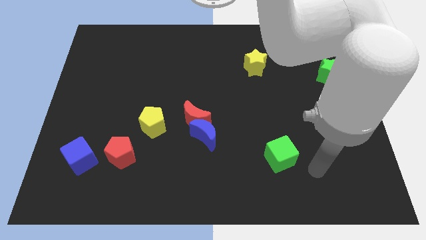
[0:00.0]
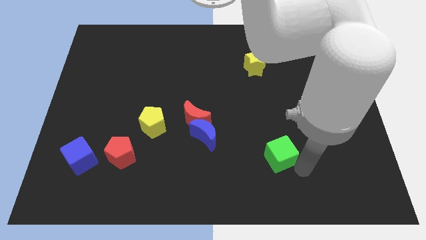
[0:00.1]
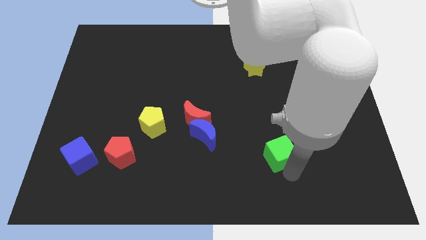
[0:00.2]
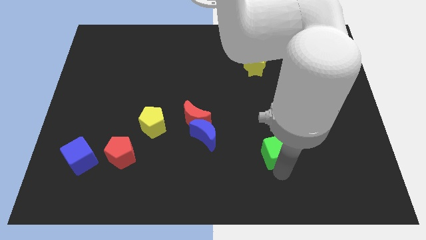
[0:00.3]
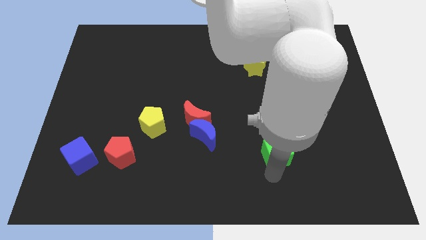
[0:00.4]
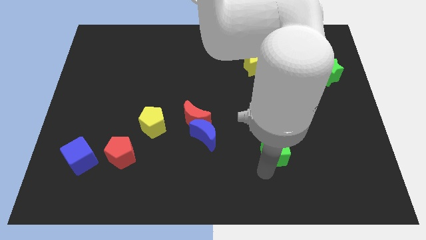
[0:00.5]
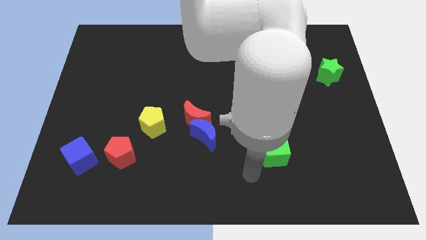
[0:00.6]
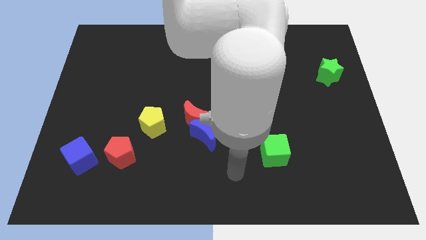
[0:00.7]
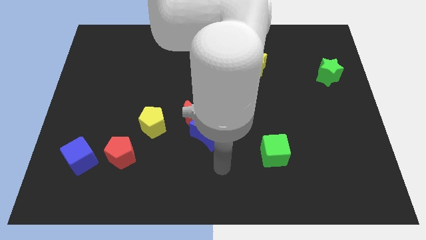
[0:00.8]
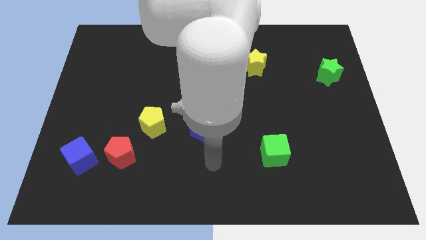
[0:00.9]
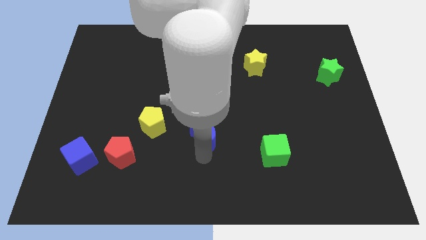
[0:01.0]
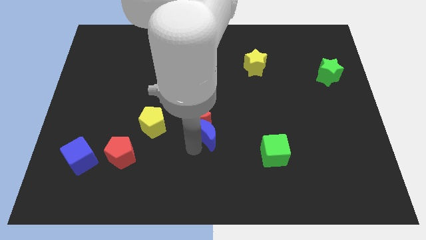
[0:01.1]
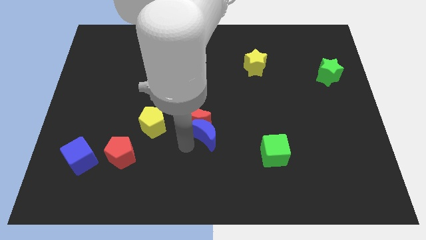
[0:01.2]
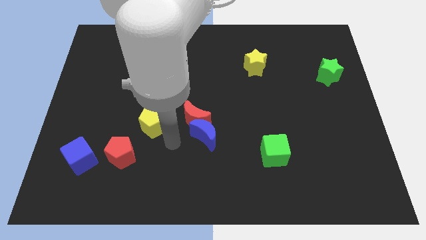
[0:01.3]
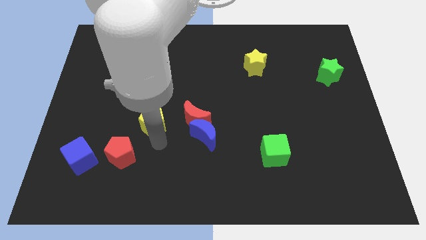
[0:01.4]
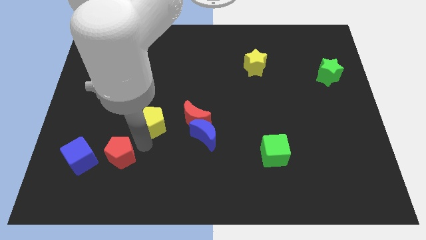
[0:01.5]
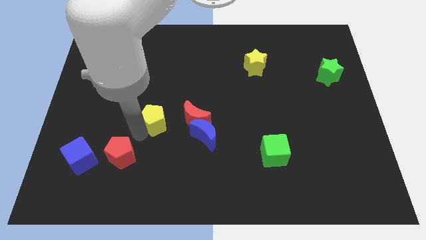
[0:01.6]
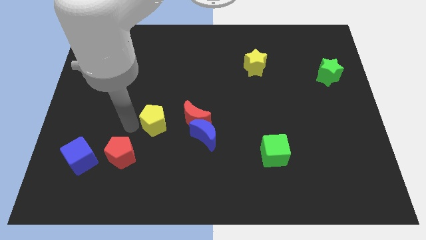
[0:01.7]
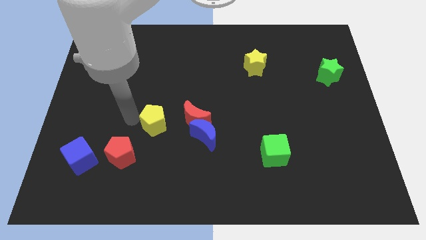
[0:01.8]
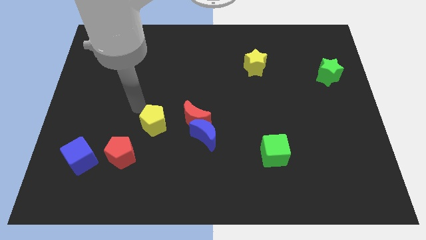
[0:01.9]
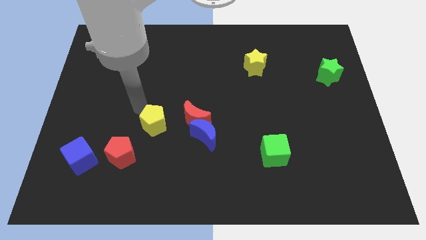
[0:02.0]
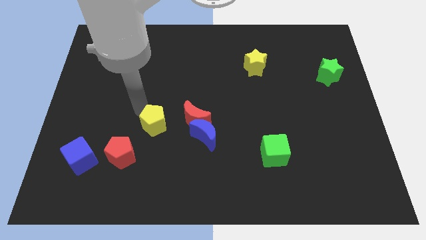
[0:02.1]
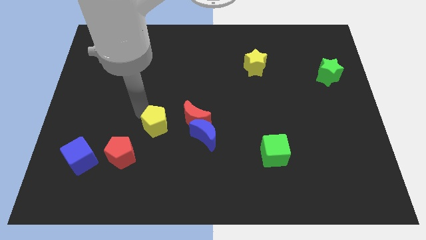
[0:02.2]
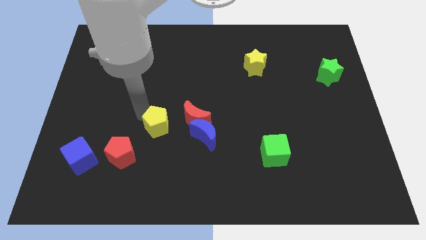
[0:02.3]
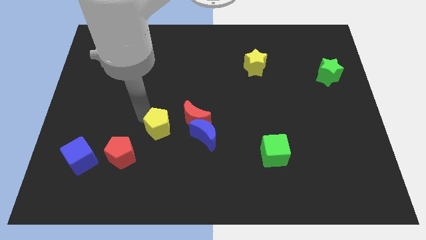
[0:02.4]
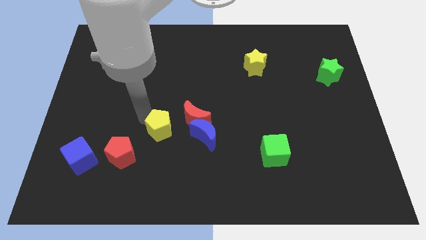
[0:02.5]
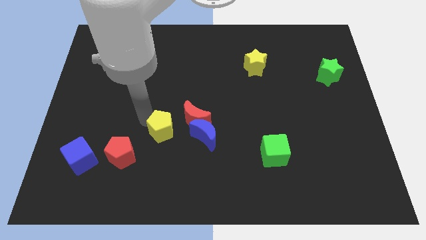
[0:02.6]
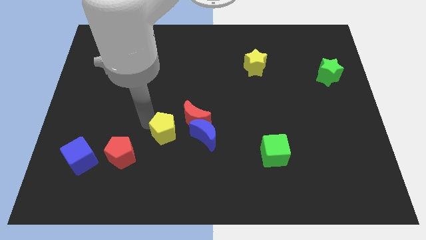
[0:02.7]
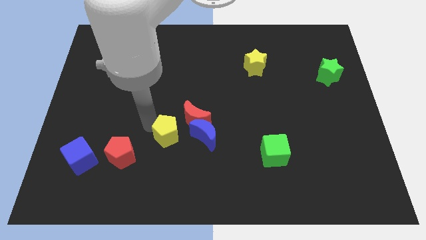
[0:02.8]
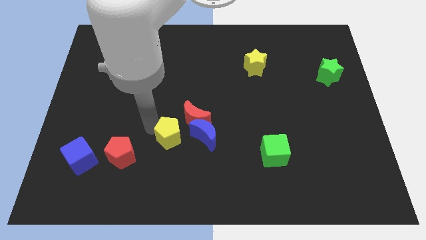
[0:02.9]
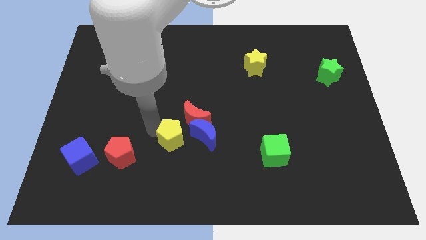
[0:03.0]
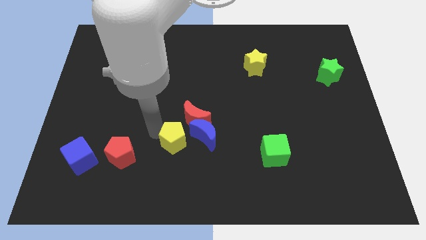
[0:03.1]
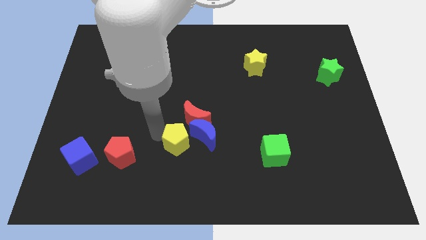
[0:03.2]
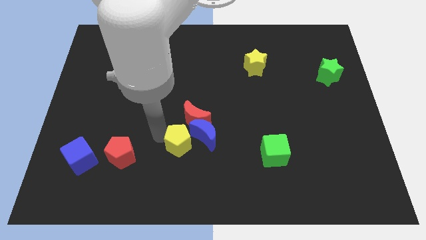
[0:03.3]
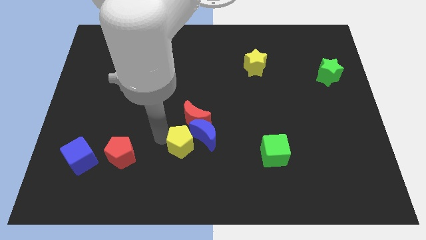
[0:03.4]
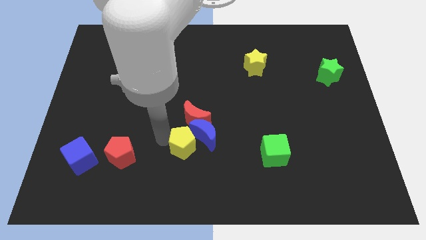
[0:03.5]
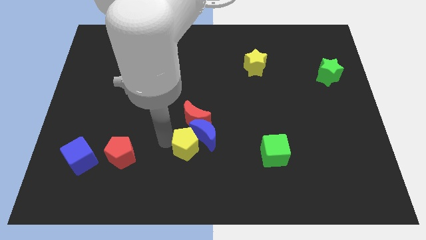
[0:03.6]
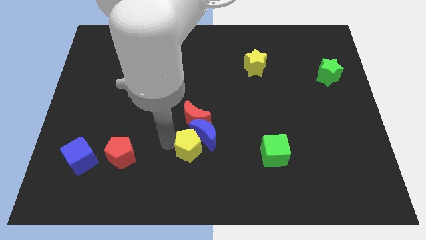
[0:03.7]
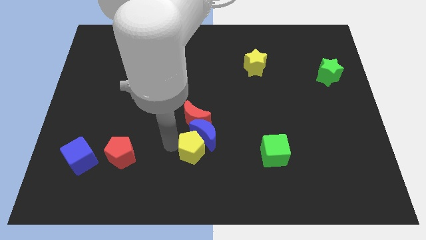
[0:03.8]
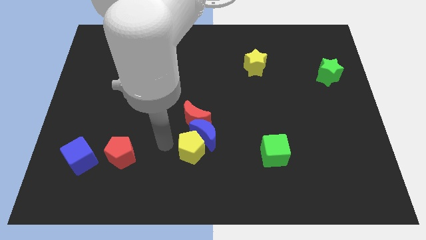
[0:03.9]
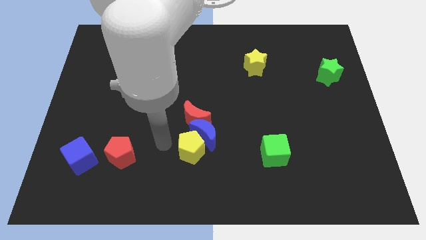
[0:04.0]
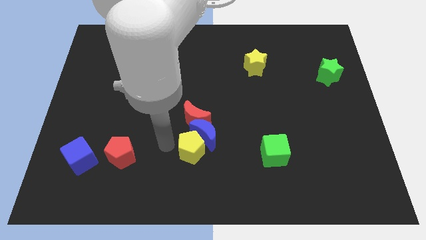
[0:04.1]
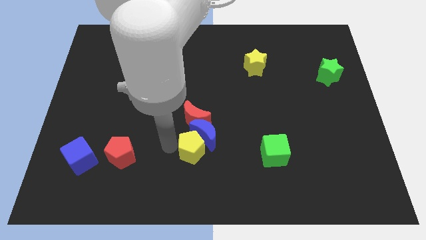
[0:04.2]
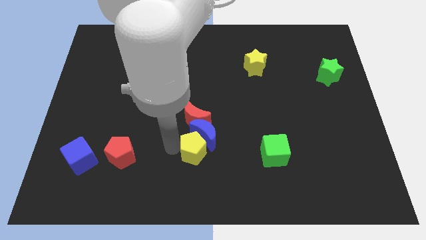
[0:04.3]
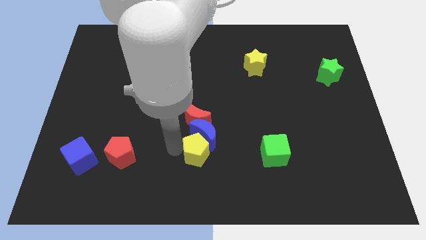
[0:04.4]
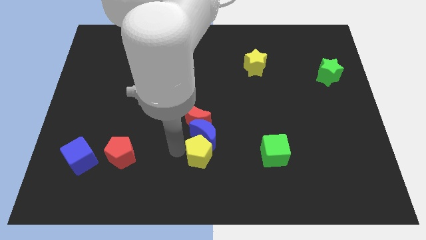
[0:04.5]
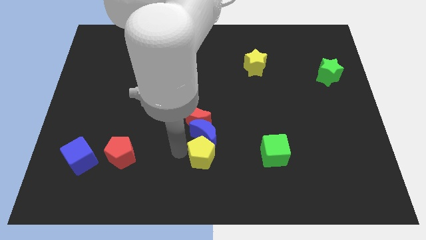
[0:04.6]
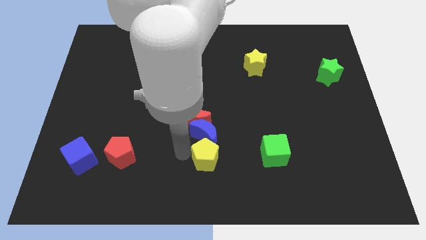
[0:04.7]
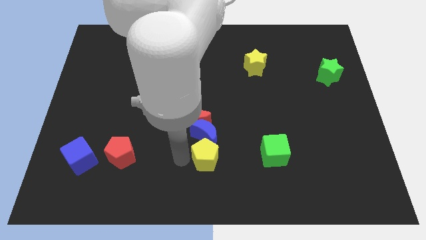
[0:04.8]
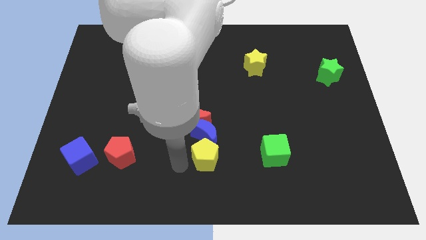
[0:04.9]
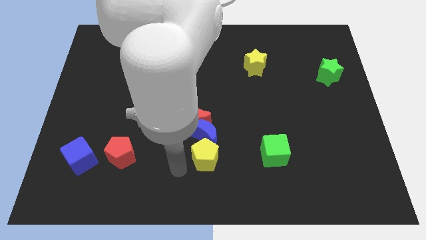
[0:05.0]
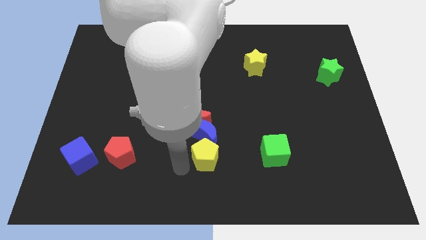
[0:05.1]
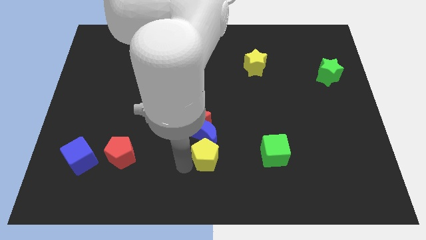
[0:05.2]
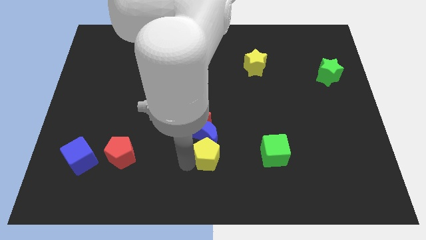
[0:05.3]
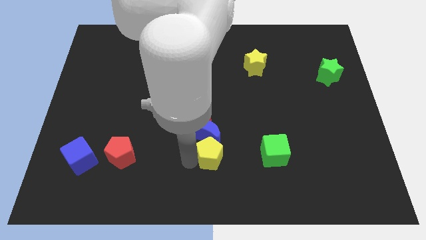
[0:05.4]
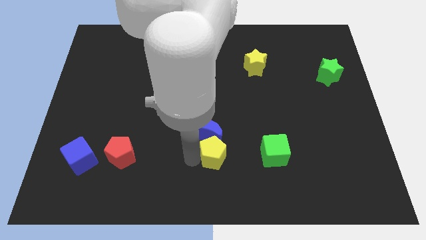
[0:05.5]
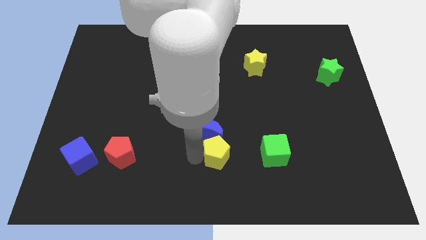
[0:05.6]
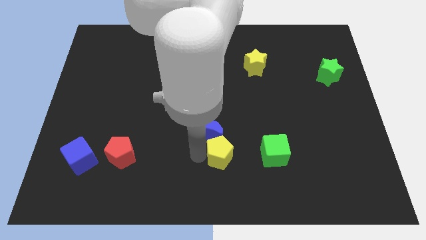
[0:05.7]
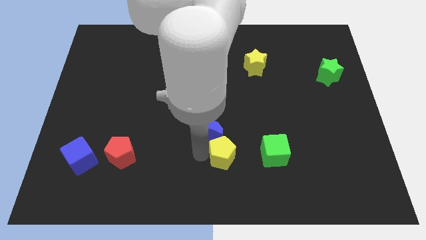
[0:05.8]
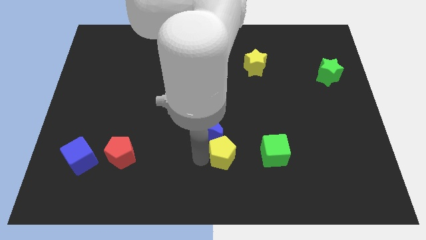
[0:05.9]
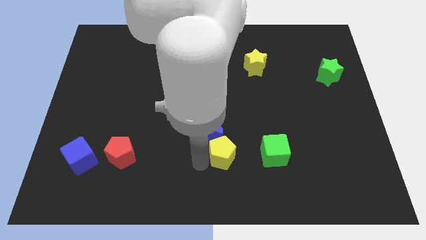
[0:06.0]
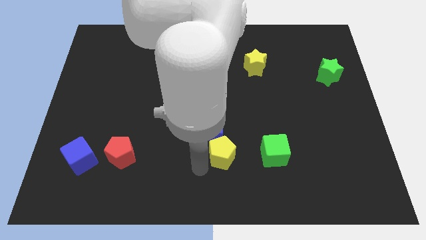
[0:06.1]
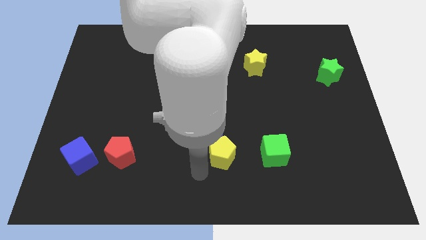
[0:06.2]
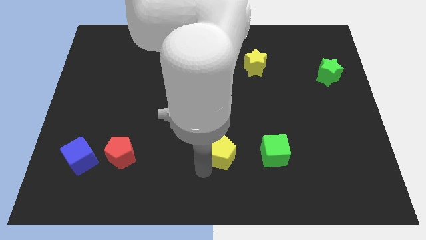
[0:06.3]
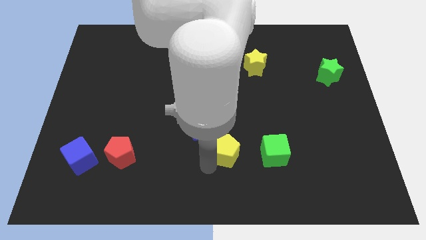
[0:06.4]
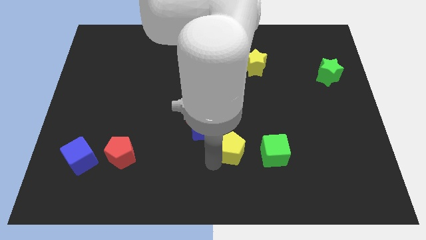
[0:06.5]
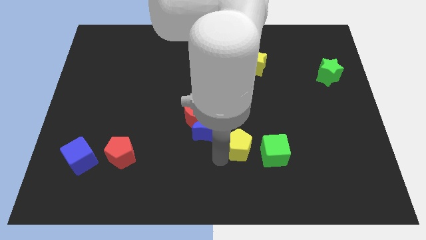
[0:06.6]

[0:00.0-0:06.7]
slide the yellow pentagon diagonally up and to the left of the green cube

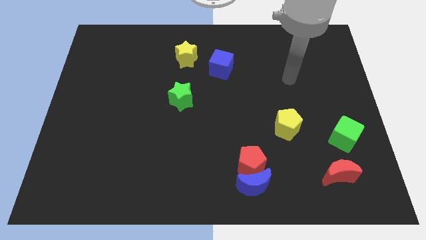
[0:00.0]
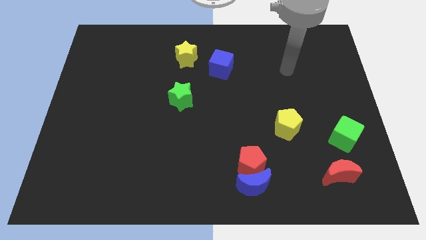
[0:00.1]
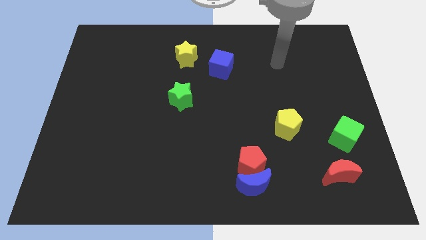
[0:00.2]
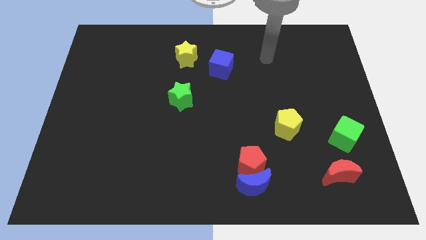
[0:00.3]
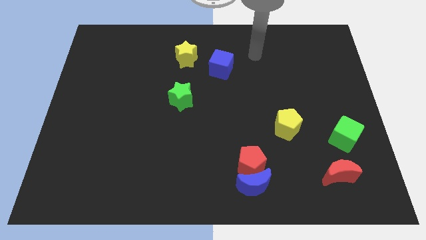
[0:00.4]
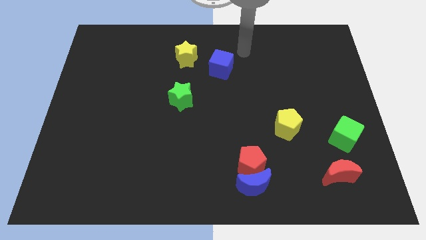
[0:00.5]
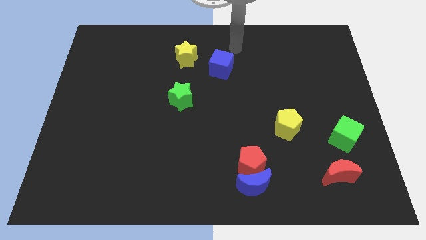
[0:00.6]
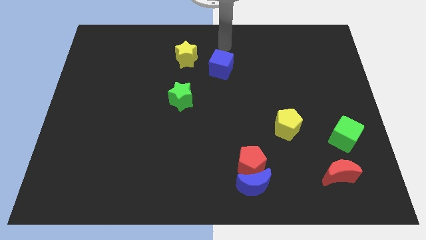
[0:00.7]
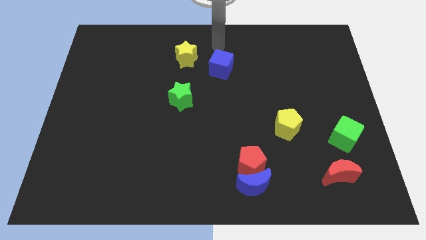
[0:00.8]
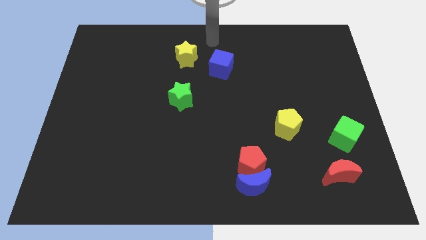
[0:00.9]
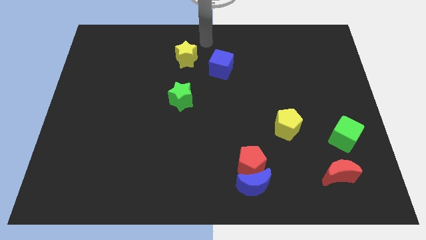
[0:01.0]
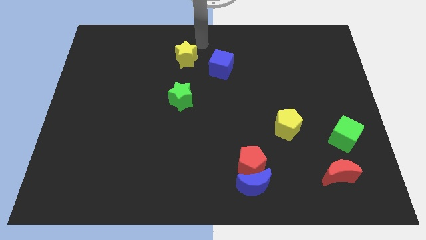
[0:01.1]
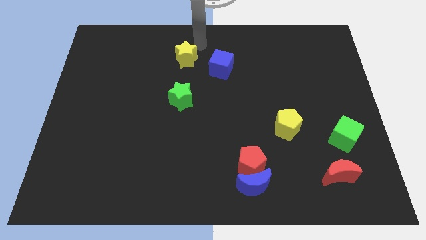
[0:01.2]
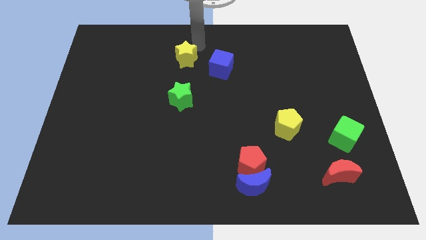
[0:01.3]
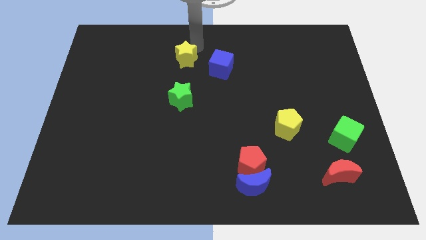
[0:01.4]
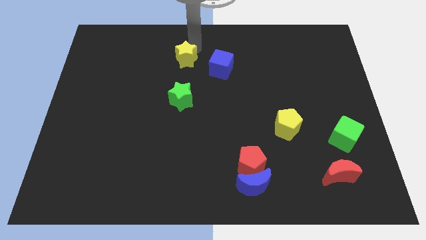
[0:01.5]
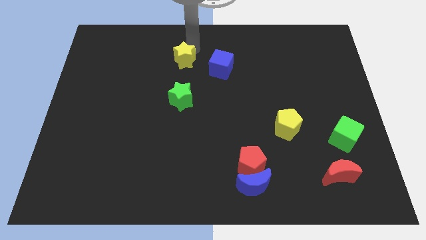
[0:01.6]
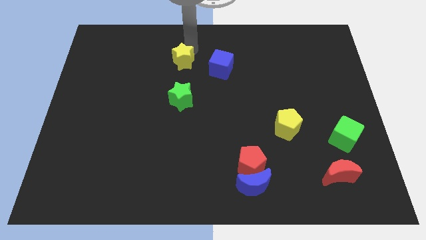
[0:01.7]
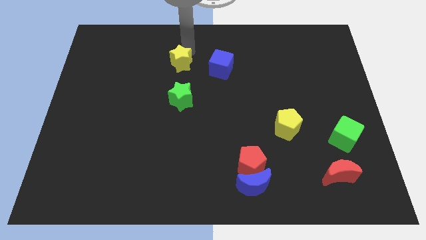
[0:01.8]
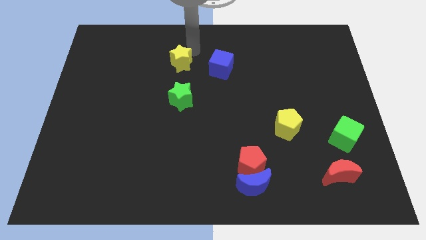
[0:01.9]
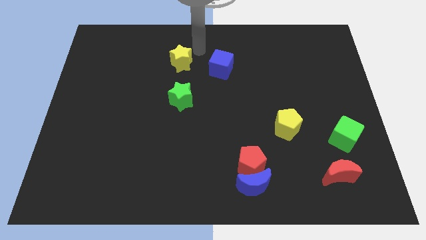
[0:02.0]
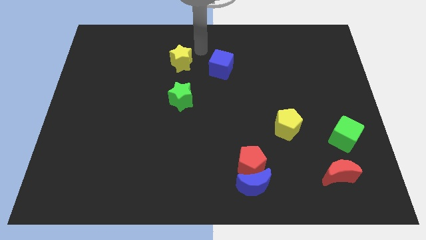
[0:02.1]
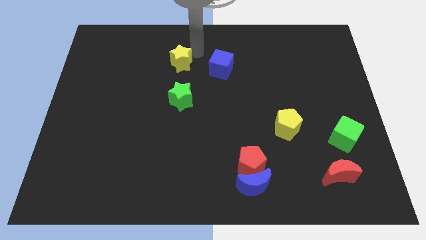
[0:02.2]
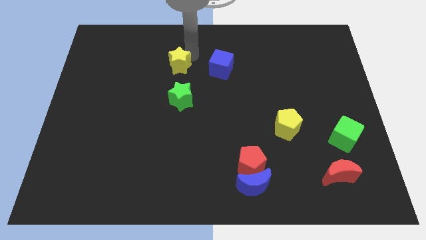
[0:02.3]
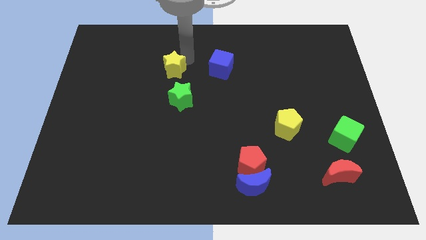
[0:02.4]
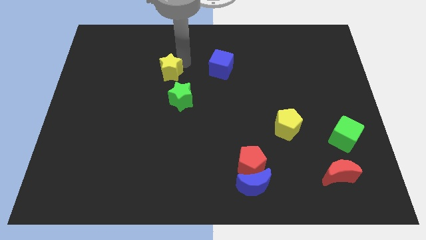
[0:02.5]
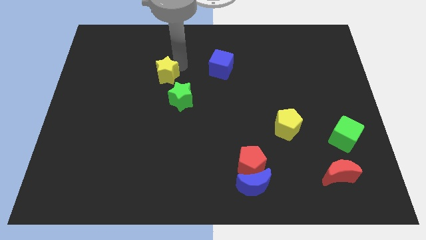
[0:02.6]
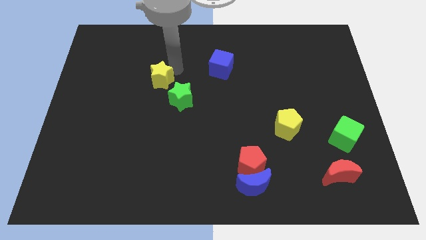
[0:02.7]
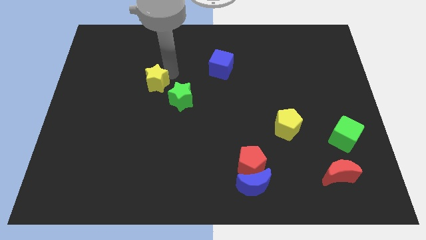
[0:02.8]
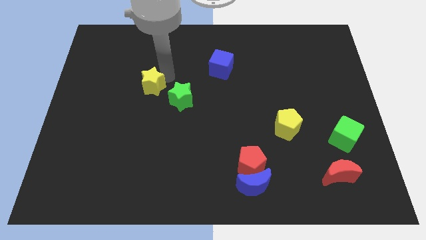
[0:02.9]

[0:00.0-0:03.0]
slide the yellow star to the left side of the green star
